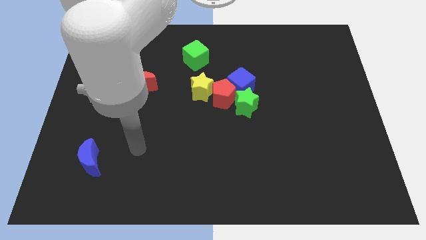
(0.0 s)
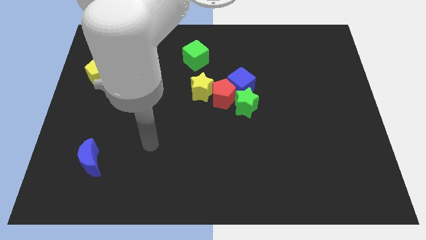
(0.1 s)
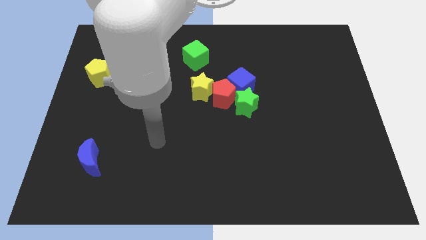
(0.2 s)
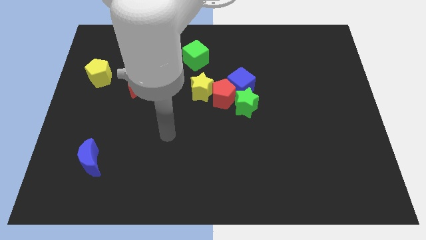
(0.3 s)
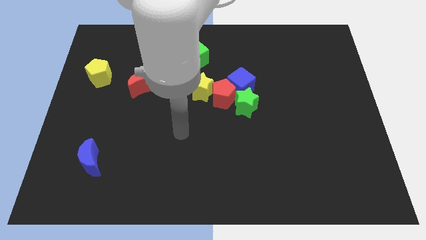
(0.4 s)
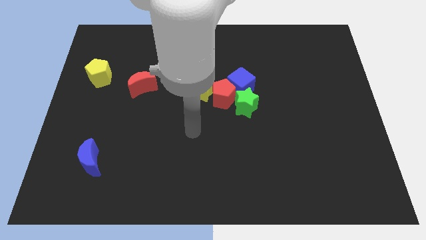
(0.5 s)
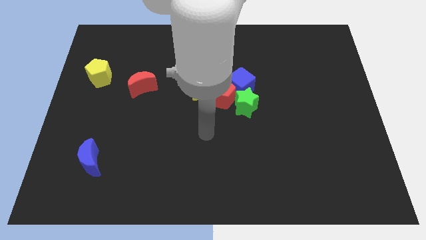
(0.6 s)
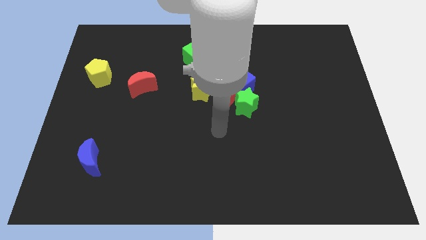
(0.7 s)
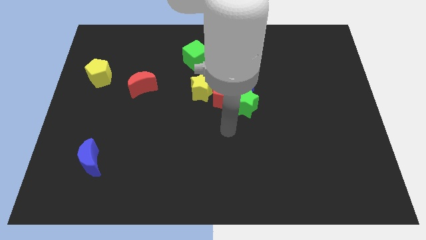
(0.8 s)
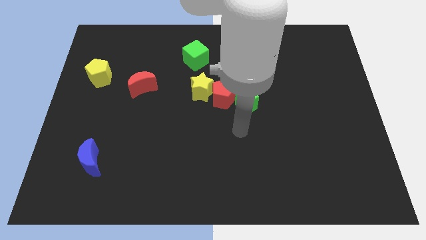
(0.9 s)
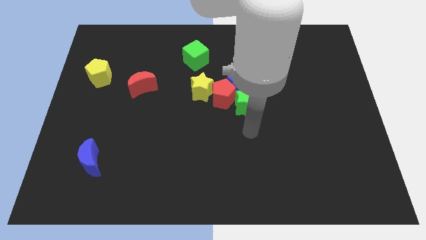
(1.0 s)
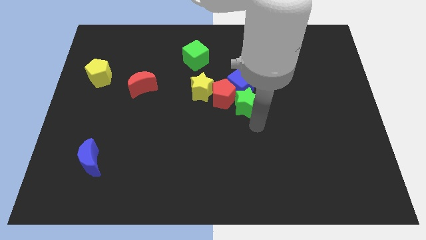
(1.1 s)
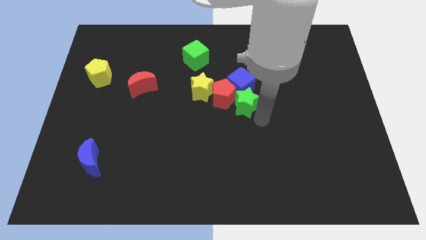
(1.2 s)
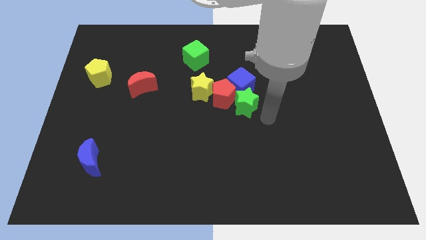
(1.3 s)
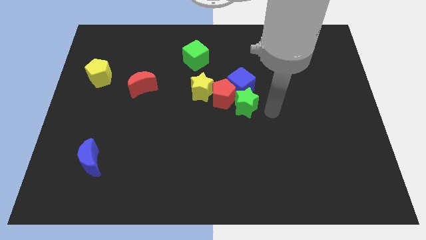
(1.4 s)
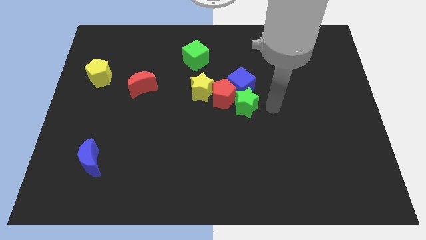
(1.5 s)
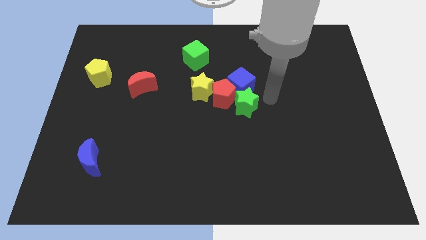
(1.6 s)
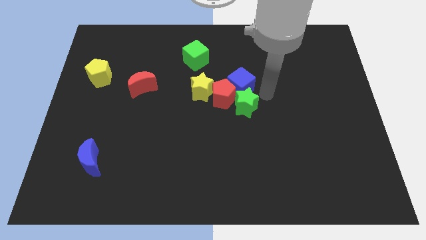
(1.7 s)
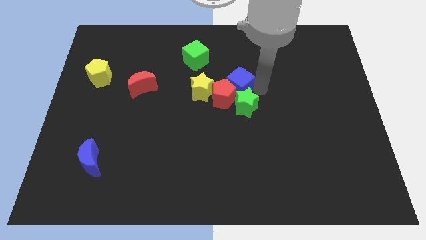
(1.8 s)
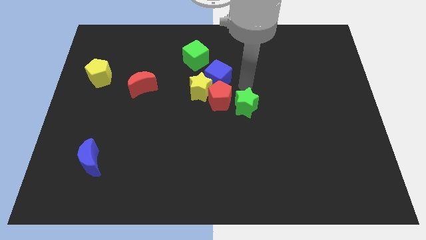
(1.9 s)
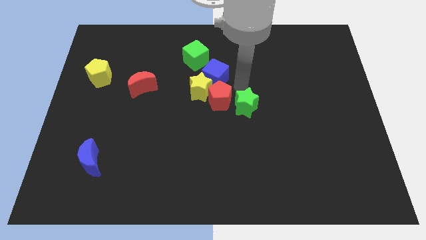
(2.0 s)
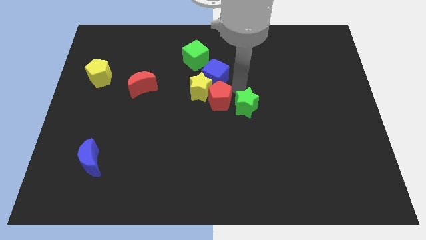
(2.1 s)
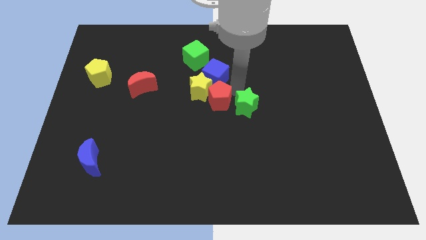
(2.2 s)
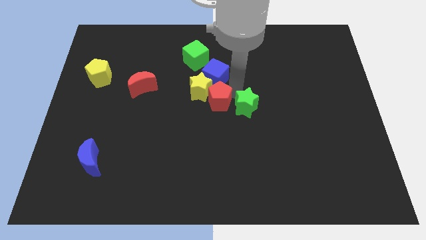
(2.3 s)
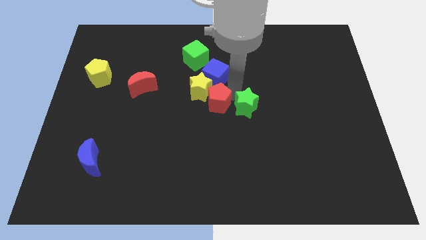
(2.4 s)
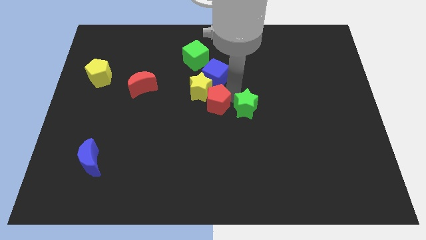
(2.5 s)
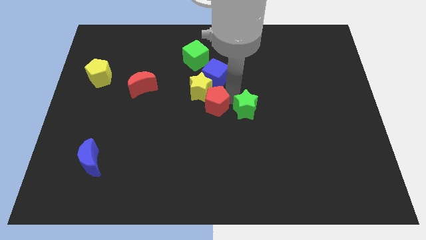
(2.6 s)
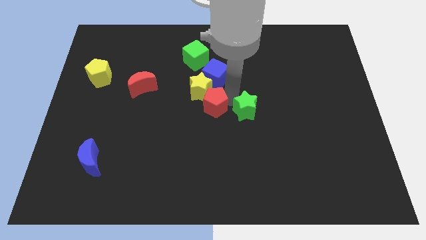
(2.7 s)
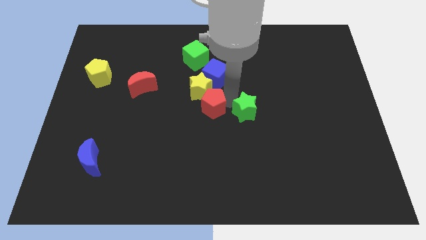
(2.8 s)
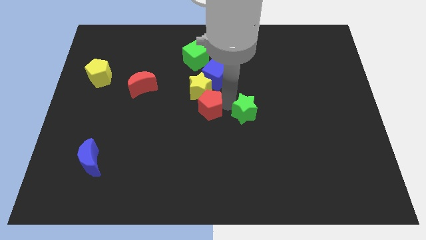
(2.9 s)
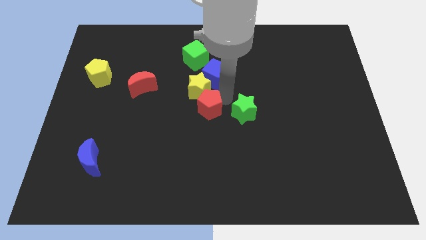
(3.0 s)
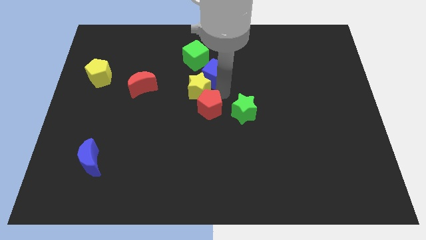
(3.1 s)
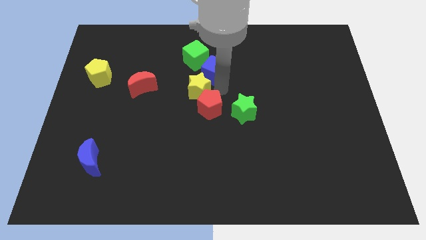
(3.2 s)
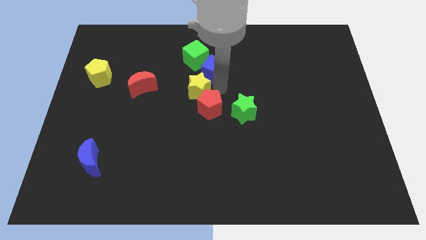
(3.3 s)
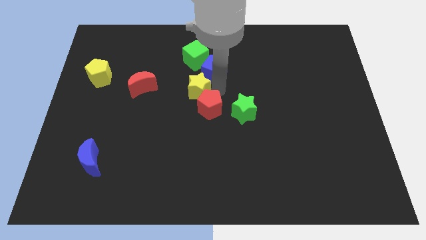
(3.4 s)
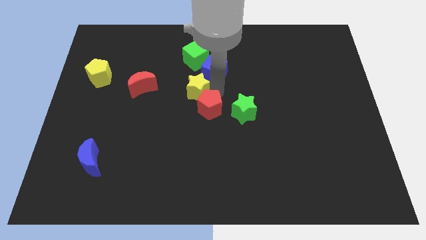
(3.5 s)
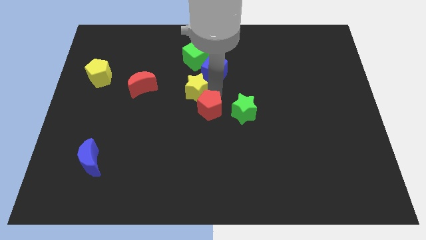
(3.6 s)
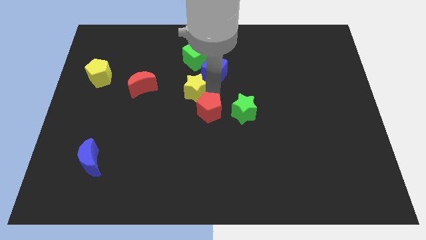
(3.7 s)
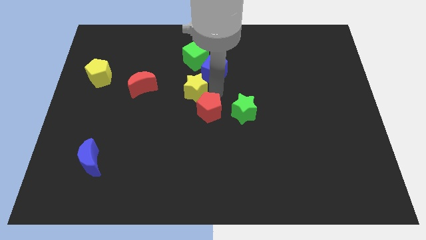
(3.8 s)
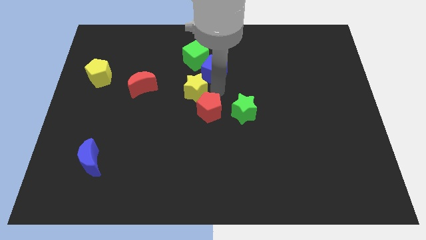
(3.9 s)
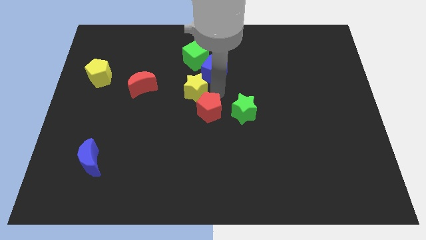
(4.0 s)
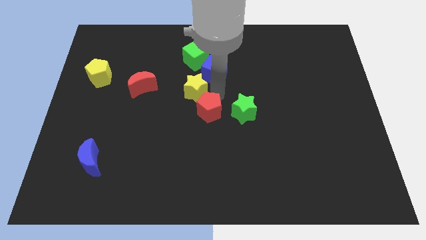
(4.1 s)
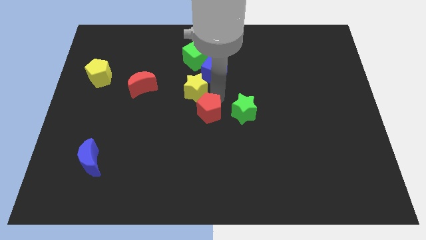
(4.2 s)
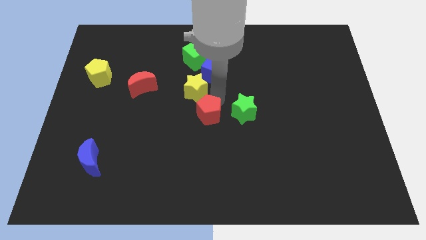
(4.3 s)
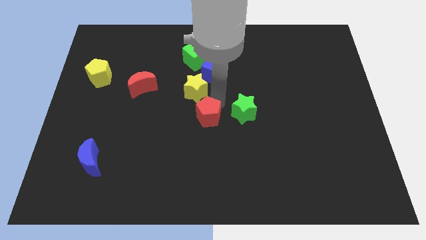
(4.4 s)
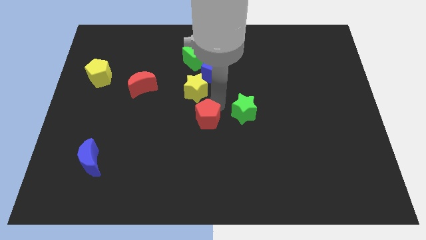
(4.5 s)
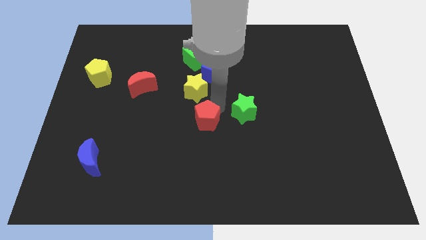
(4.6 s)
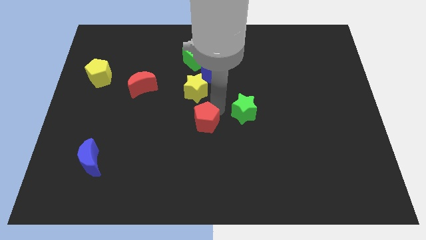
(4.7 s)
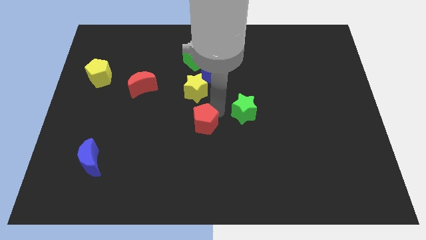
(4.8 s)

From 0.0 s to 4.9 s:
pull the red pentagon apart from the group of blocks

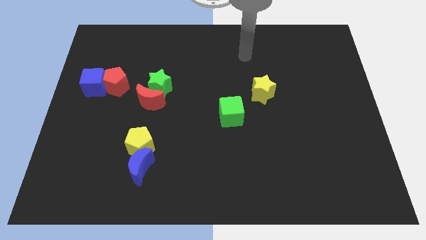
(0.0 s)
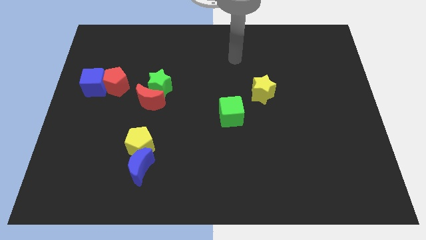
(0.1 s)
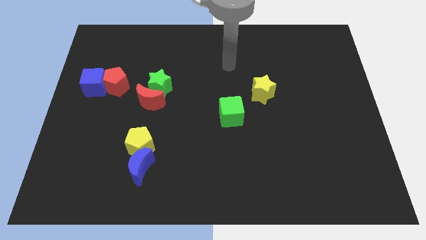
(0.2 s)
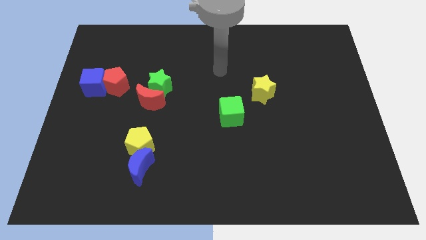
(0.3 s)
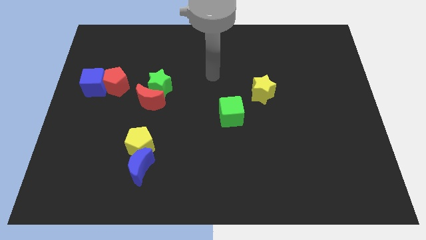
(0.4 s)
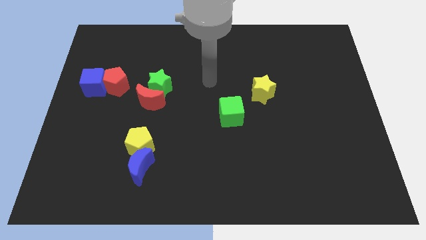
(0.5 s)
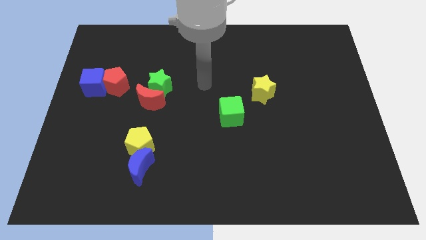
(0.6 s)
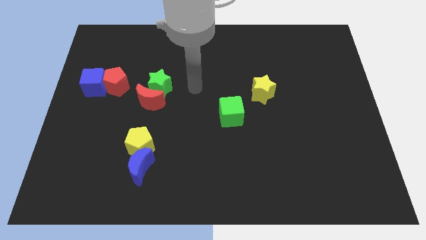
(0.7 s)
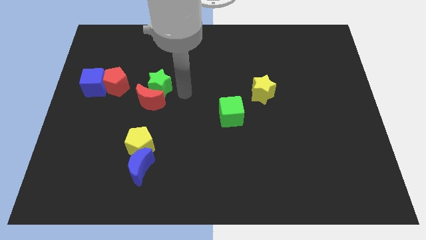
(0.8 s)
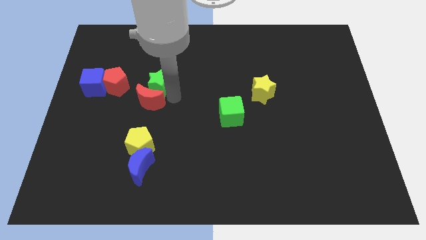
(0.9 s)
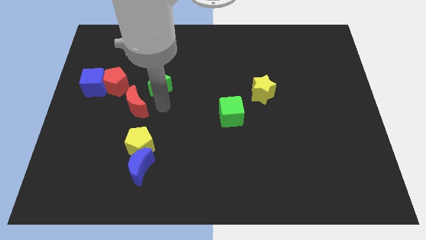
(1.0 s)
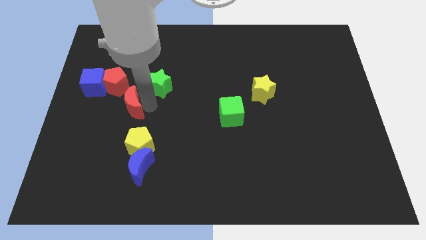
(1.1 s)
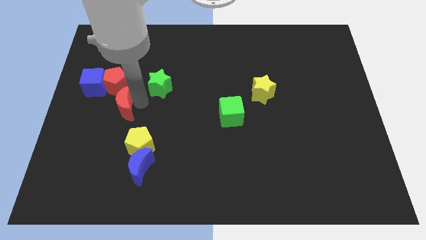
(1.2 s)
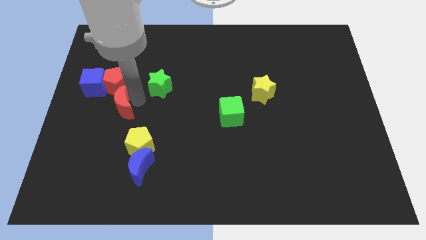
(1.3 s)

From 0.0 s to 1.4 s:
pull the green star apart from the red moon

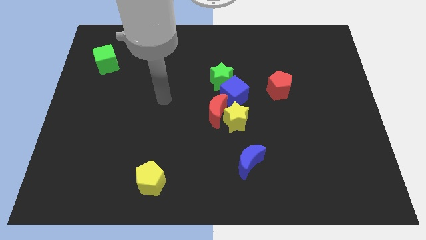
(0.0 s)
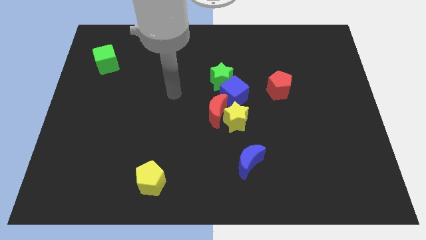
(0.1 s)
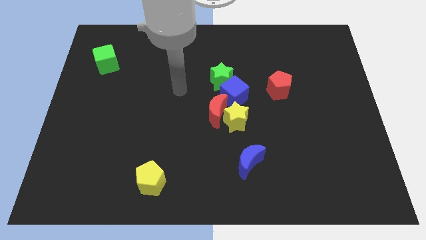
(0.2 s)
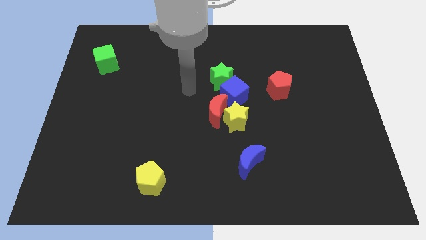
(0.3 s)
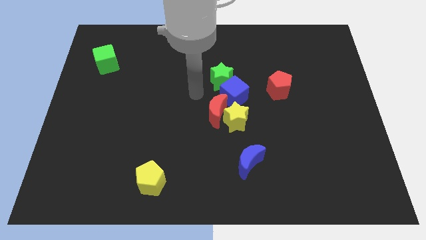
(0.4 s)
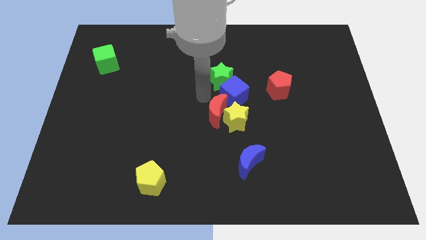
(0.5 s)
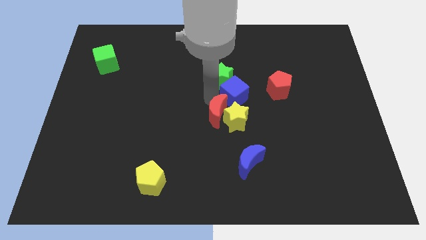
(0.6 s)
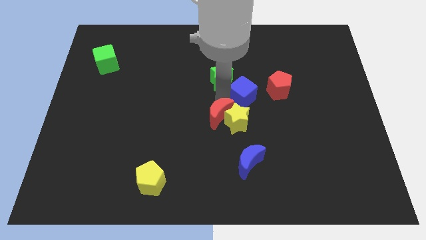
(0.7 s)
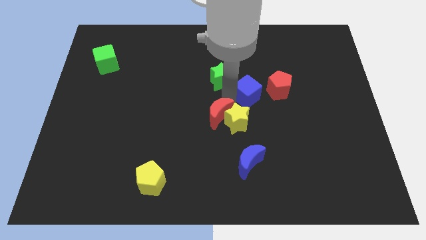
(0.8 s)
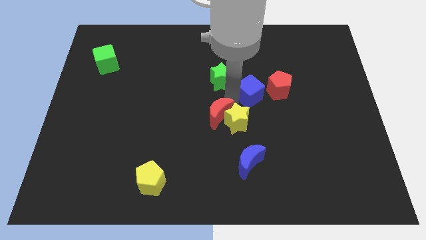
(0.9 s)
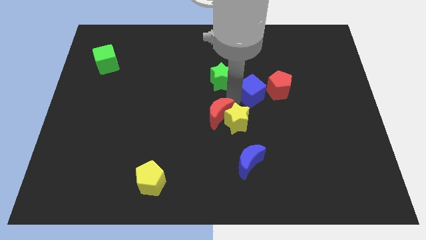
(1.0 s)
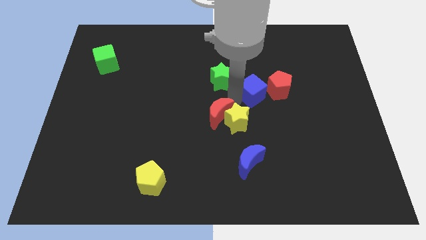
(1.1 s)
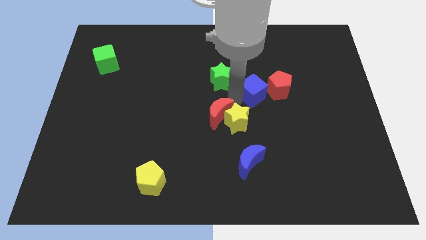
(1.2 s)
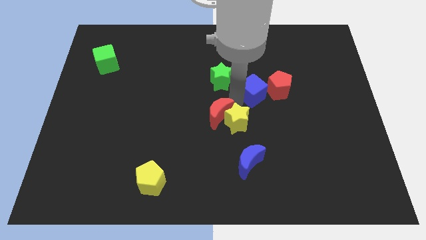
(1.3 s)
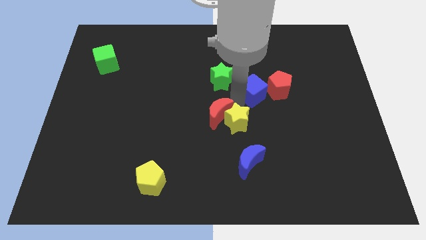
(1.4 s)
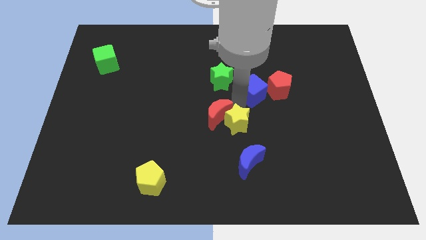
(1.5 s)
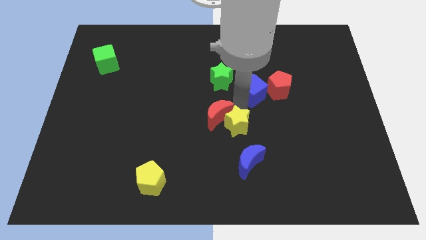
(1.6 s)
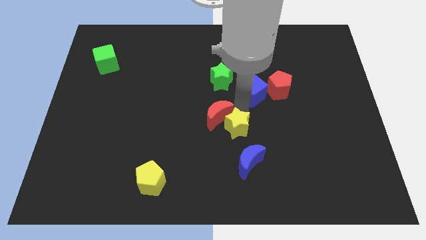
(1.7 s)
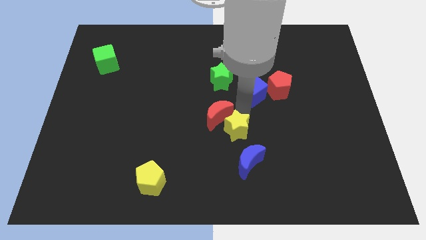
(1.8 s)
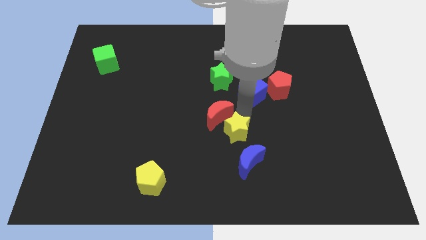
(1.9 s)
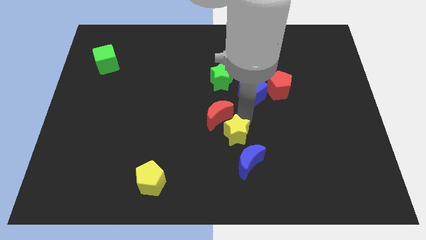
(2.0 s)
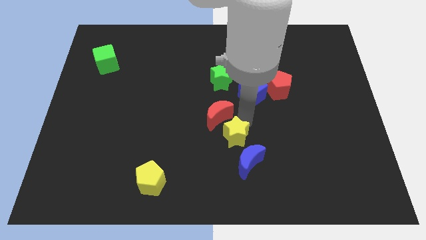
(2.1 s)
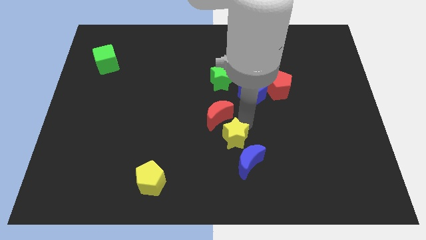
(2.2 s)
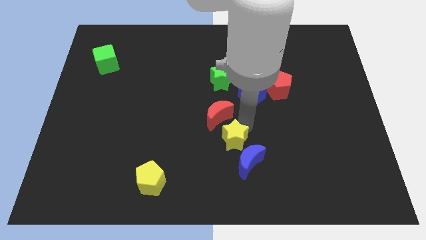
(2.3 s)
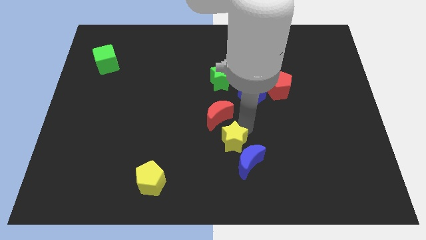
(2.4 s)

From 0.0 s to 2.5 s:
move the yellow star away from the red moon and blue cube

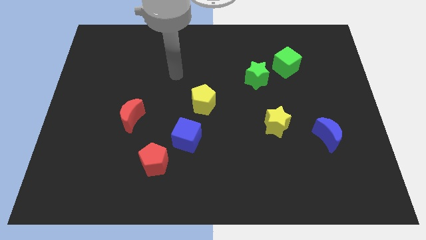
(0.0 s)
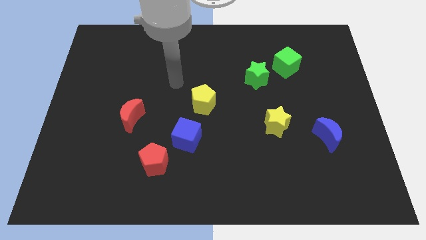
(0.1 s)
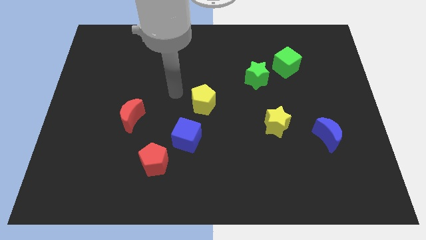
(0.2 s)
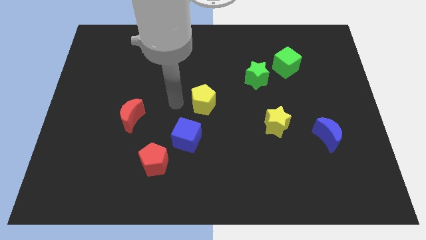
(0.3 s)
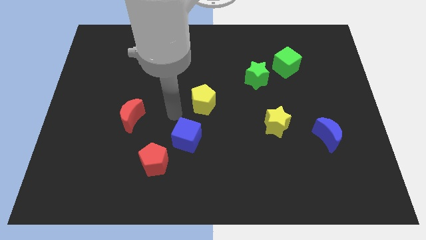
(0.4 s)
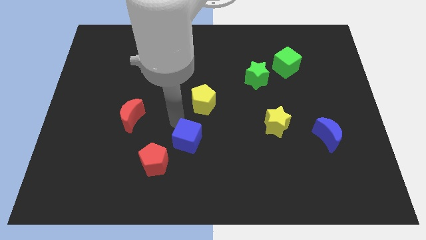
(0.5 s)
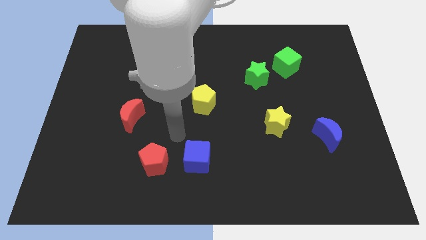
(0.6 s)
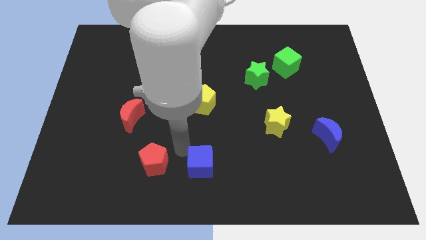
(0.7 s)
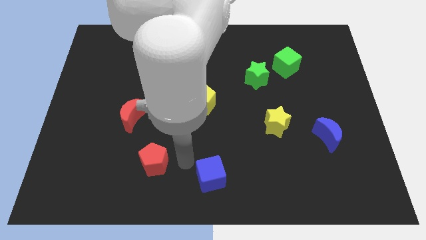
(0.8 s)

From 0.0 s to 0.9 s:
move the red pentagon away from the blue cube
